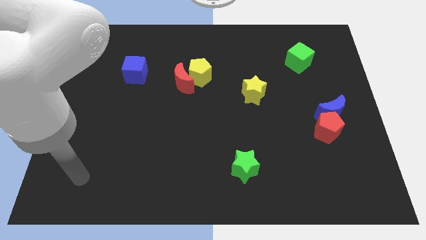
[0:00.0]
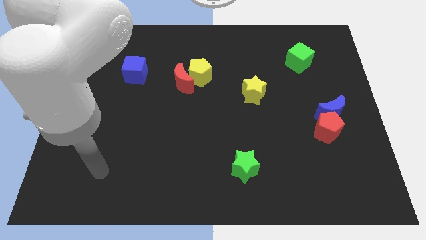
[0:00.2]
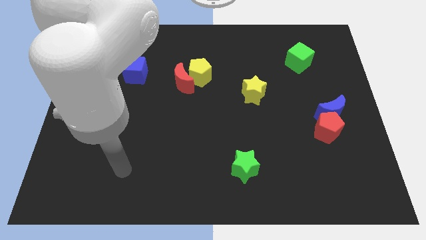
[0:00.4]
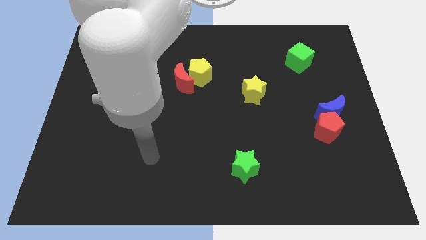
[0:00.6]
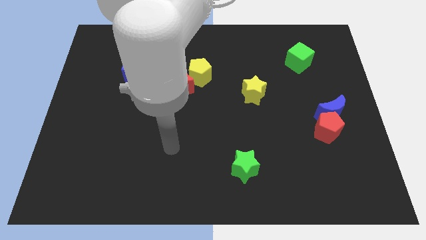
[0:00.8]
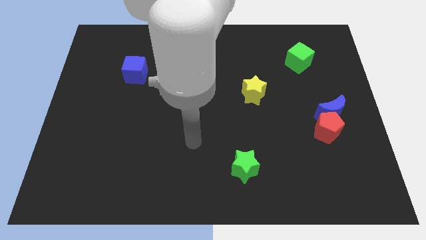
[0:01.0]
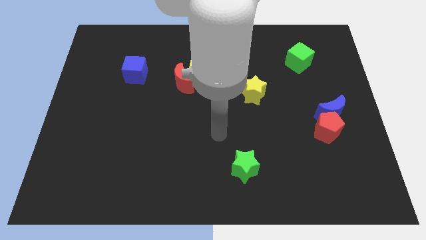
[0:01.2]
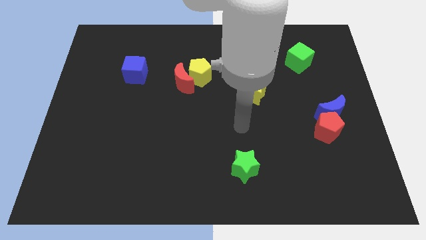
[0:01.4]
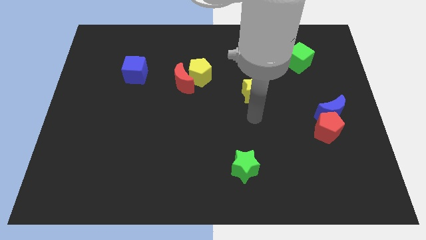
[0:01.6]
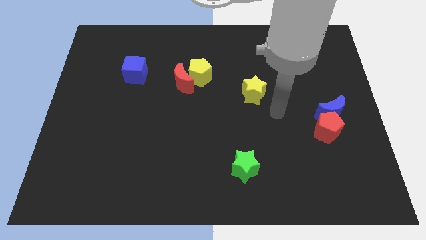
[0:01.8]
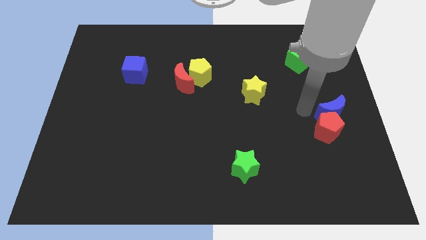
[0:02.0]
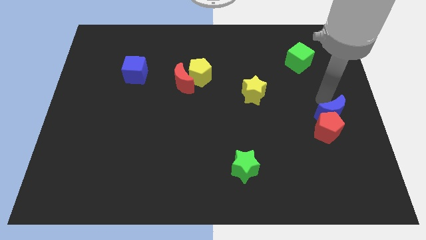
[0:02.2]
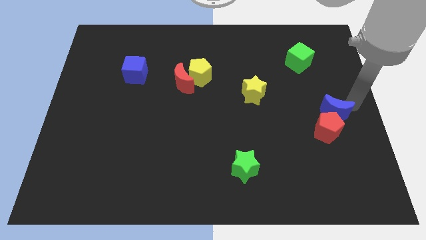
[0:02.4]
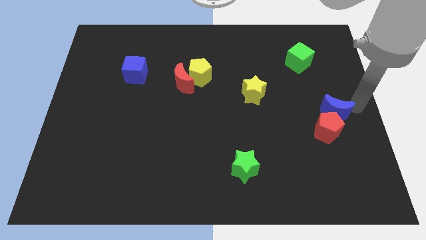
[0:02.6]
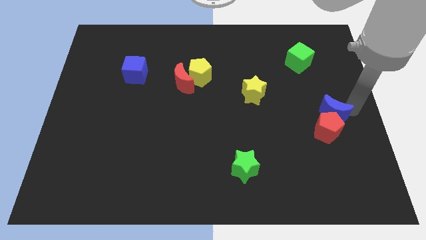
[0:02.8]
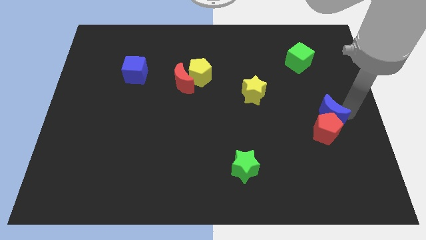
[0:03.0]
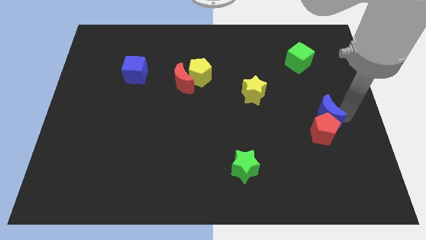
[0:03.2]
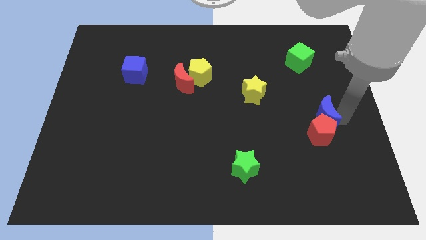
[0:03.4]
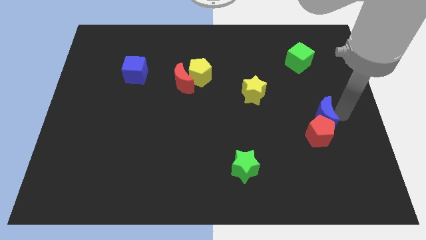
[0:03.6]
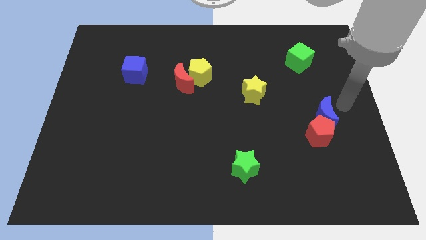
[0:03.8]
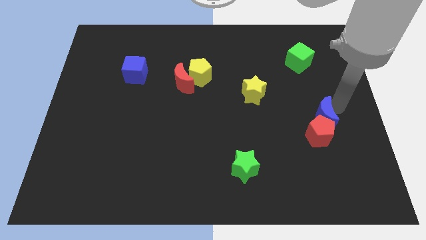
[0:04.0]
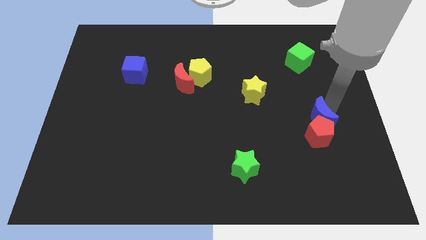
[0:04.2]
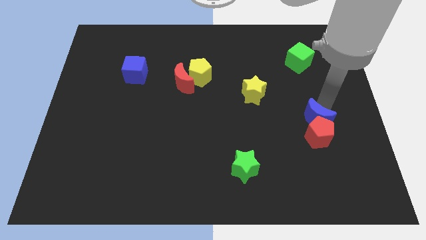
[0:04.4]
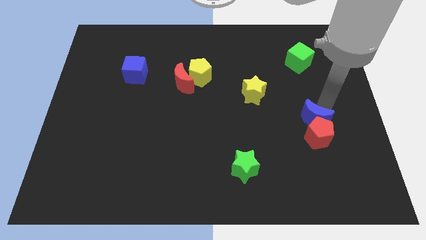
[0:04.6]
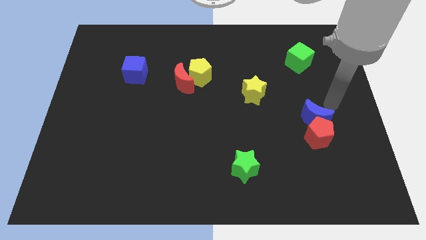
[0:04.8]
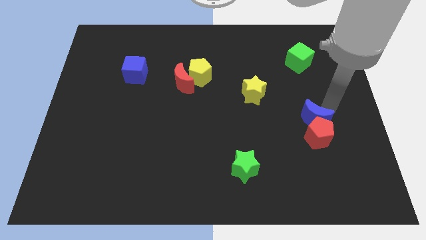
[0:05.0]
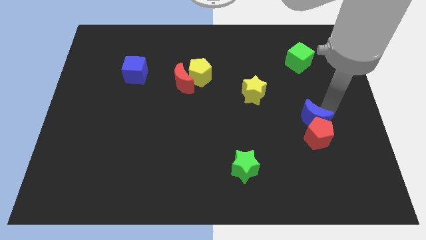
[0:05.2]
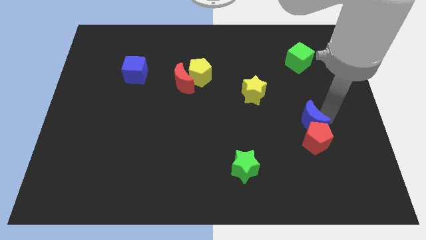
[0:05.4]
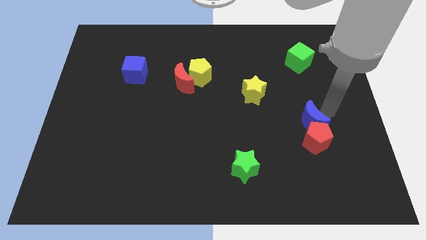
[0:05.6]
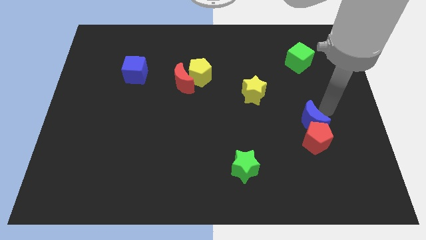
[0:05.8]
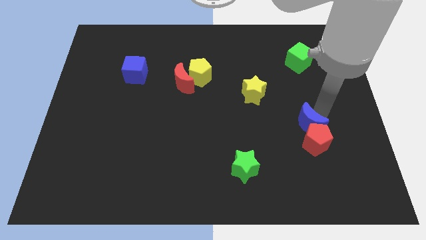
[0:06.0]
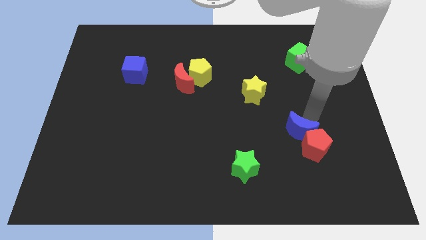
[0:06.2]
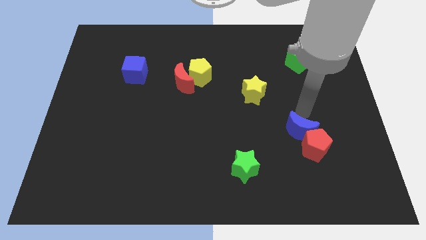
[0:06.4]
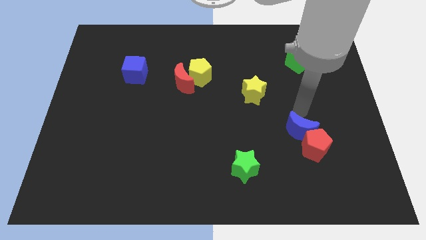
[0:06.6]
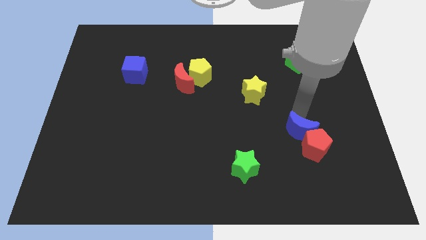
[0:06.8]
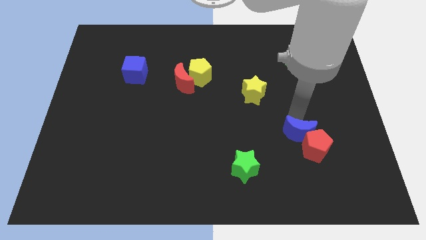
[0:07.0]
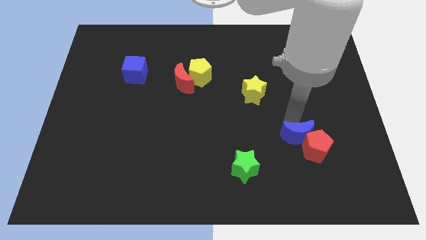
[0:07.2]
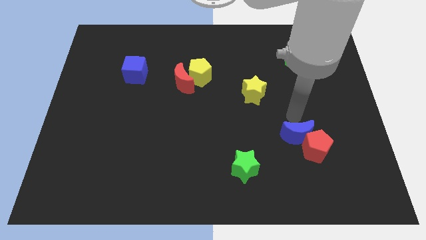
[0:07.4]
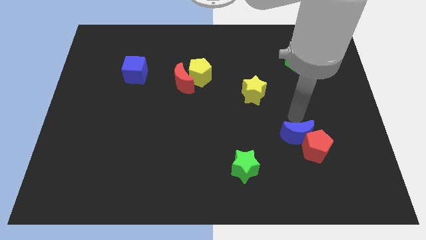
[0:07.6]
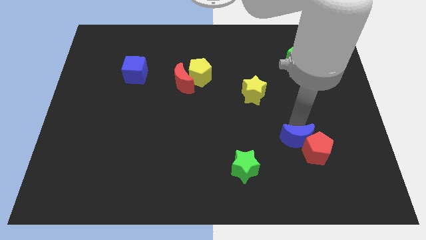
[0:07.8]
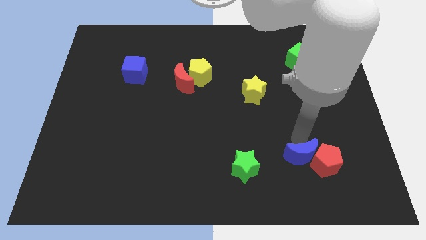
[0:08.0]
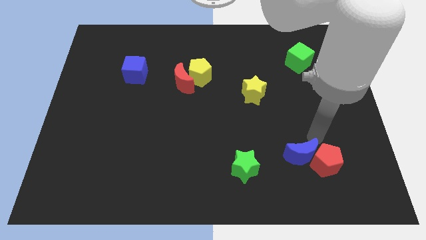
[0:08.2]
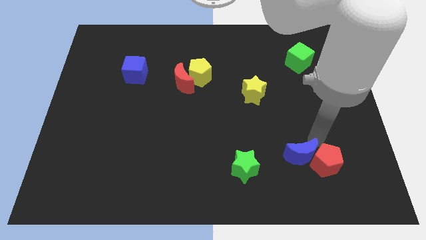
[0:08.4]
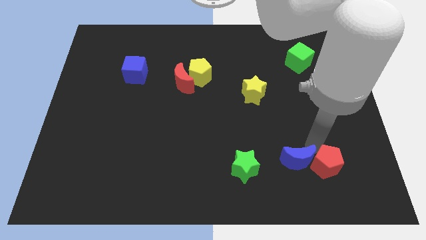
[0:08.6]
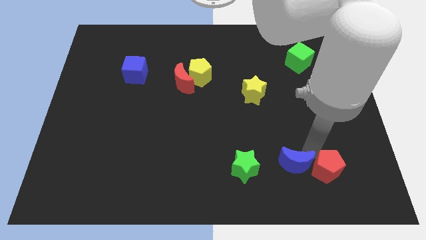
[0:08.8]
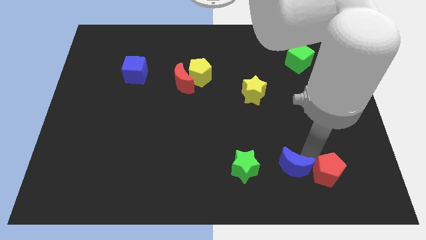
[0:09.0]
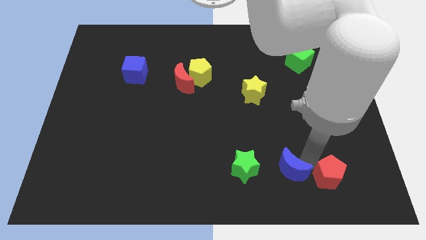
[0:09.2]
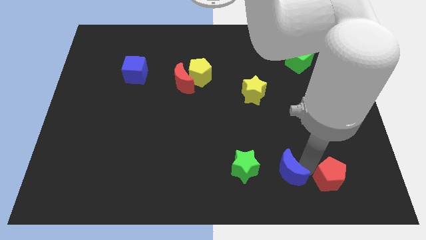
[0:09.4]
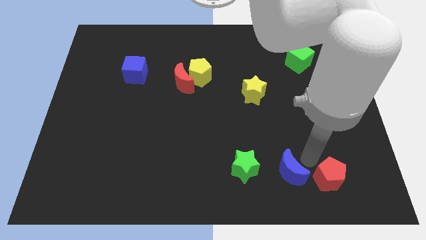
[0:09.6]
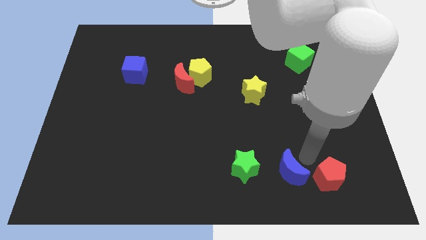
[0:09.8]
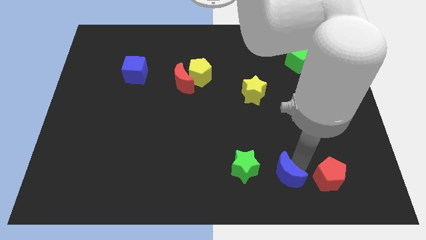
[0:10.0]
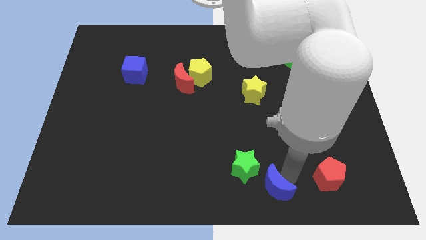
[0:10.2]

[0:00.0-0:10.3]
slide the blue moon to the bottom side

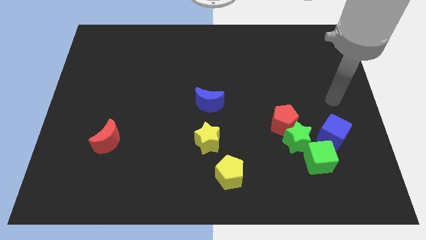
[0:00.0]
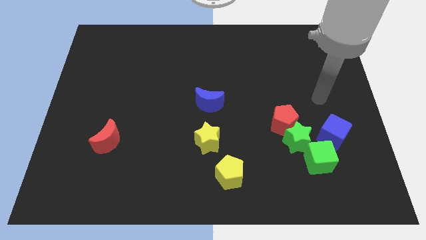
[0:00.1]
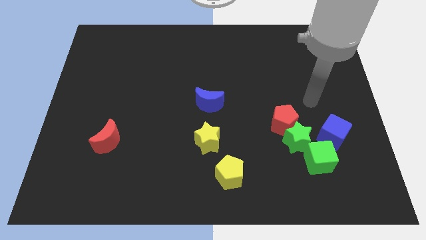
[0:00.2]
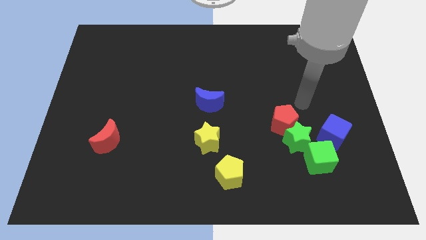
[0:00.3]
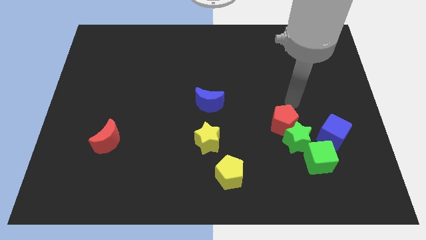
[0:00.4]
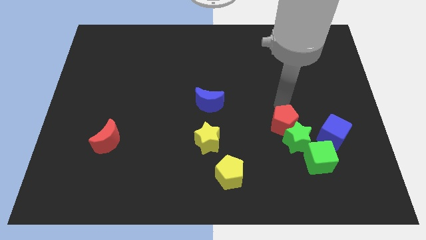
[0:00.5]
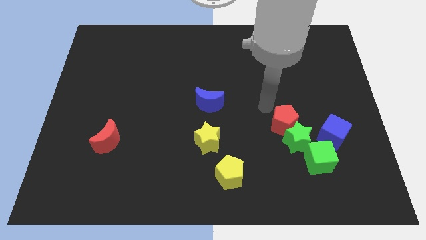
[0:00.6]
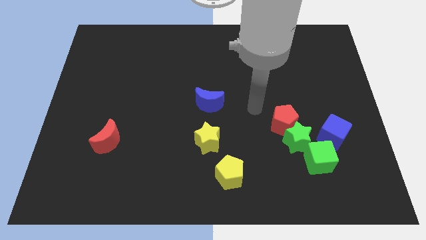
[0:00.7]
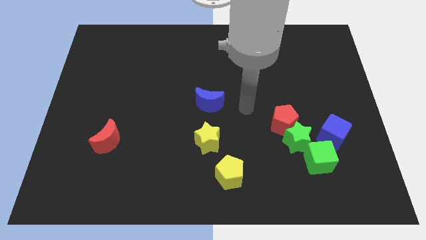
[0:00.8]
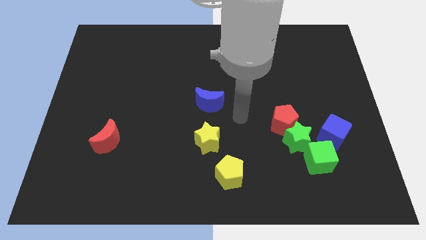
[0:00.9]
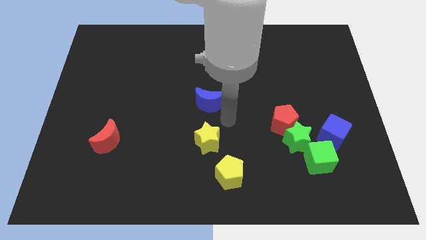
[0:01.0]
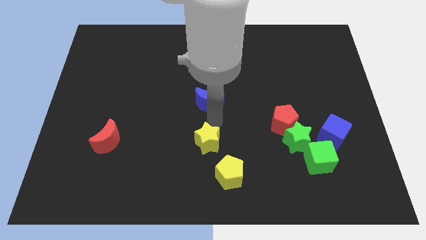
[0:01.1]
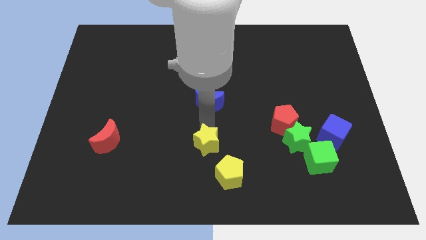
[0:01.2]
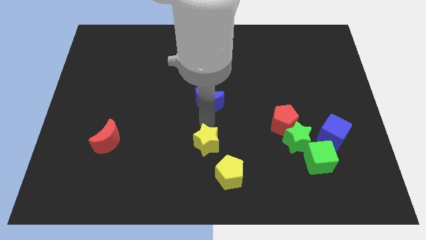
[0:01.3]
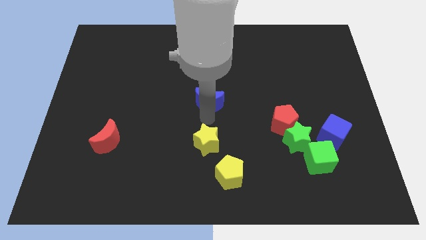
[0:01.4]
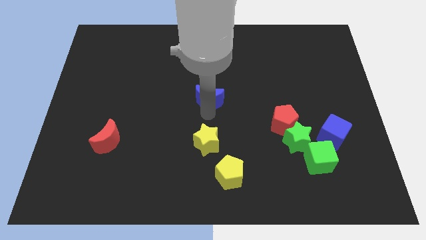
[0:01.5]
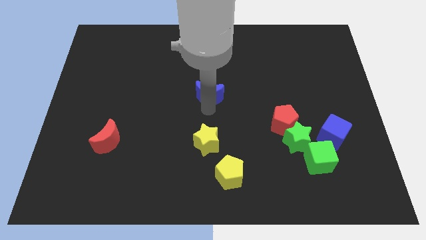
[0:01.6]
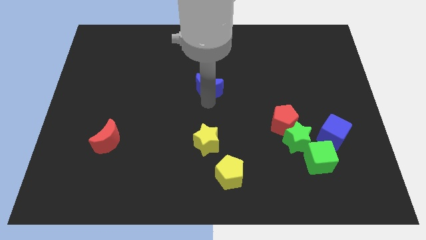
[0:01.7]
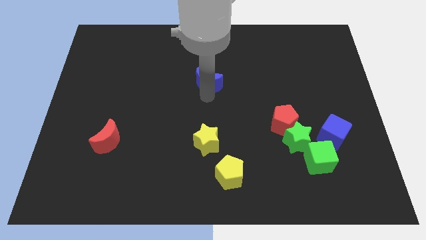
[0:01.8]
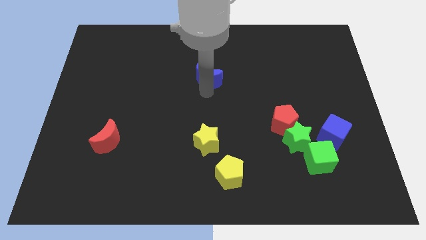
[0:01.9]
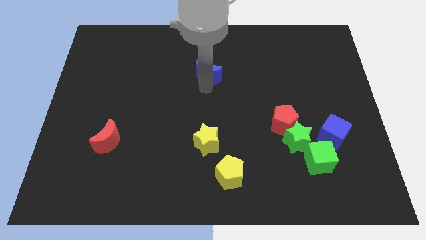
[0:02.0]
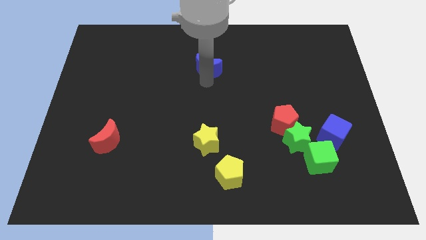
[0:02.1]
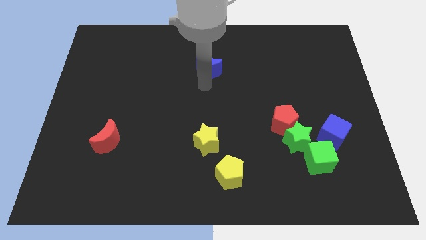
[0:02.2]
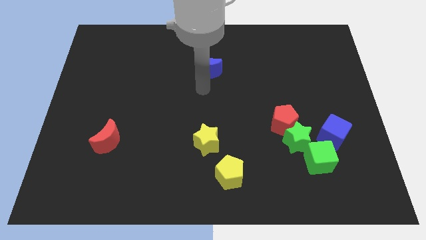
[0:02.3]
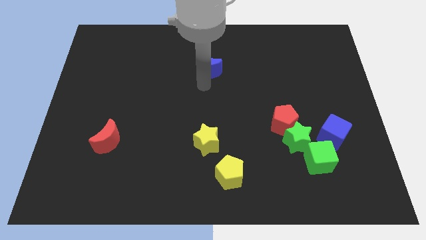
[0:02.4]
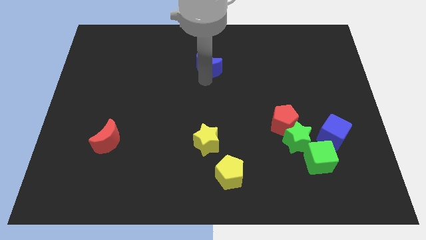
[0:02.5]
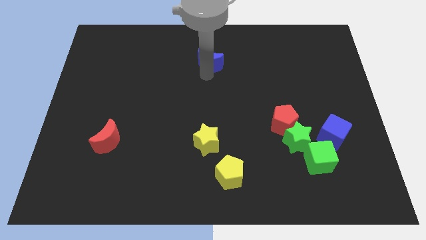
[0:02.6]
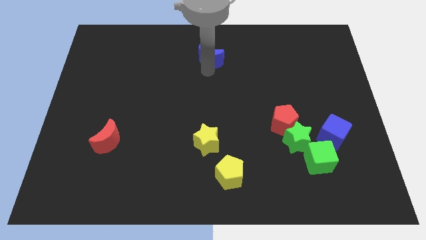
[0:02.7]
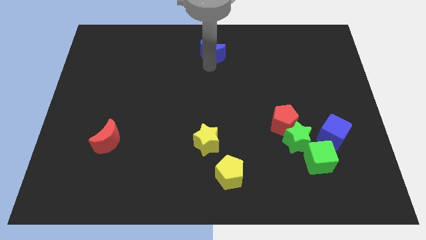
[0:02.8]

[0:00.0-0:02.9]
slide the blue moon to the top side
